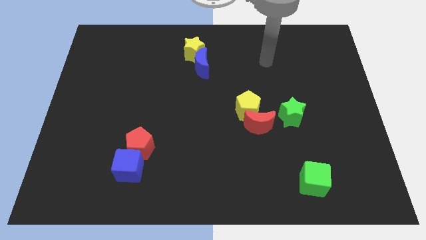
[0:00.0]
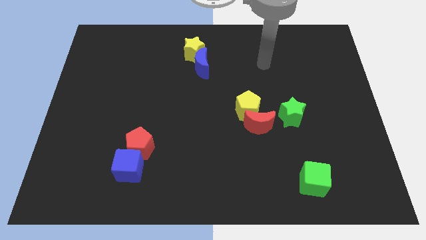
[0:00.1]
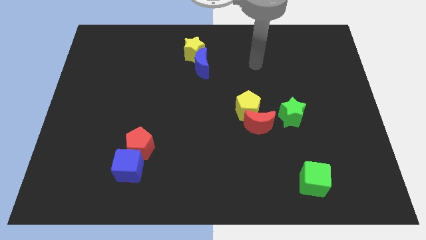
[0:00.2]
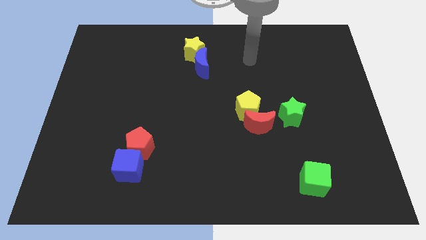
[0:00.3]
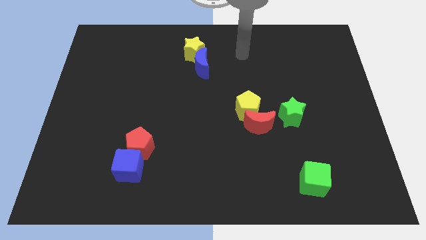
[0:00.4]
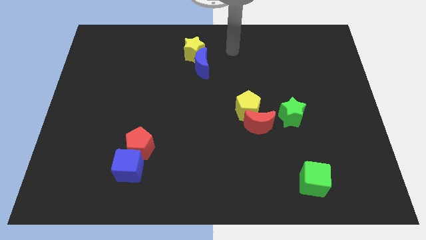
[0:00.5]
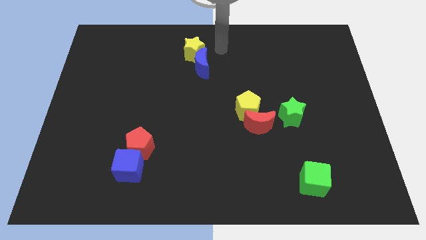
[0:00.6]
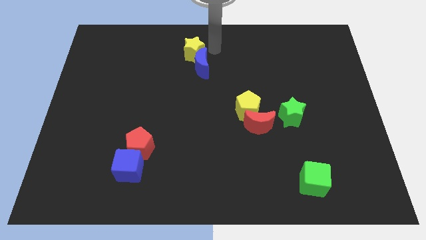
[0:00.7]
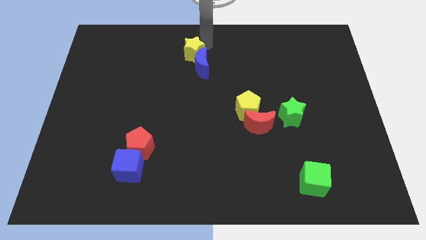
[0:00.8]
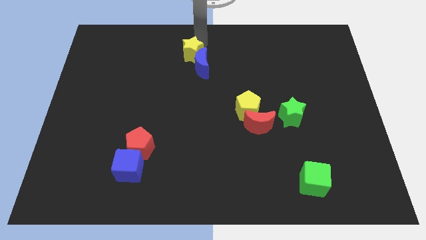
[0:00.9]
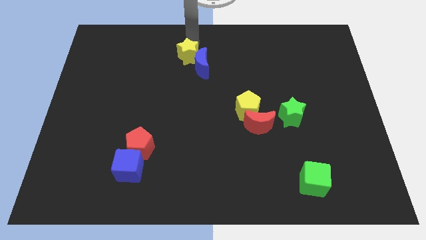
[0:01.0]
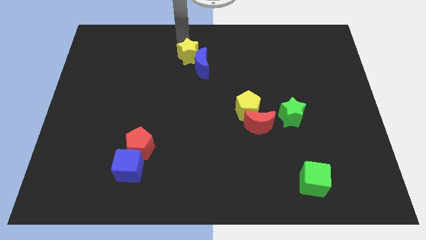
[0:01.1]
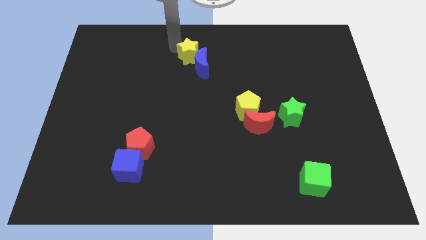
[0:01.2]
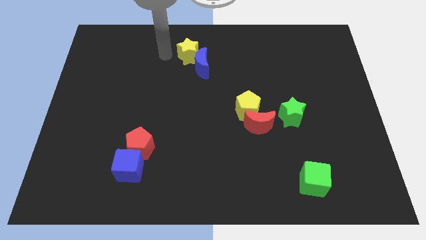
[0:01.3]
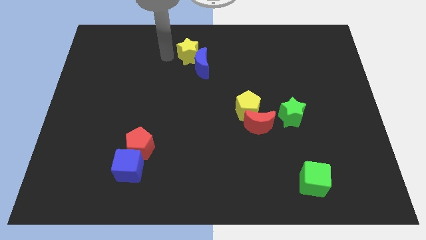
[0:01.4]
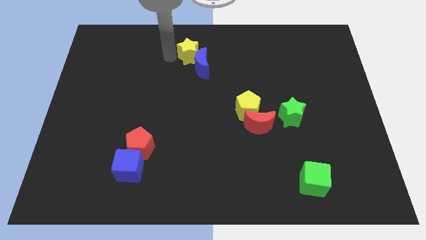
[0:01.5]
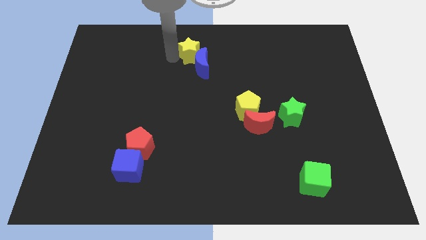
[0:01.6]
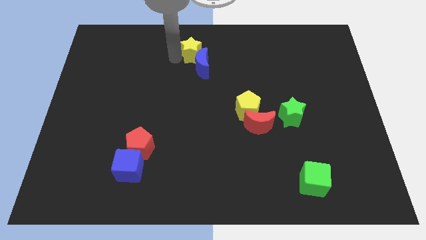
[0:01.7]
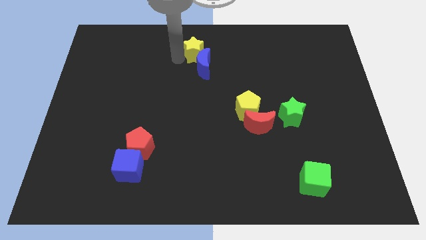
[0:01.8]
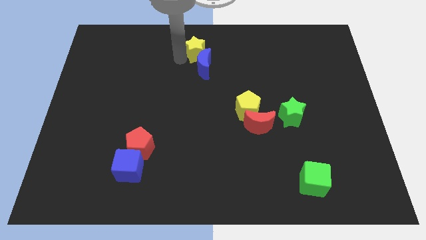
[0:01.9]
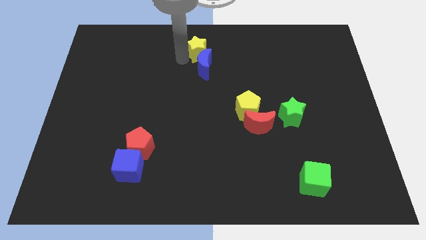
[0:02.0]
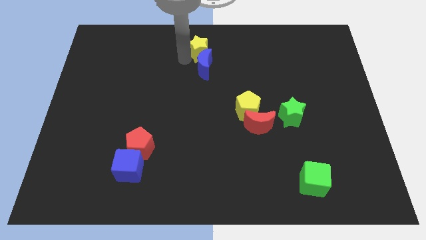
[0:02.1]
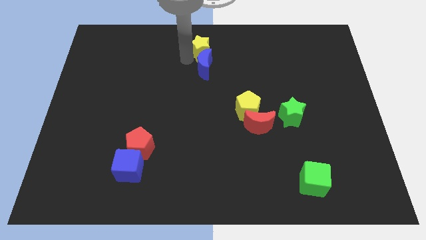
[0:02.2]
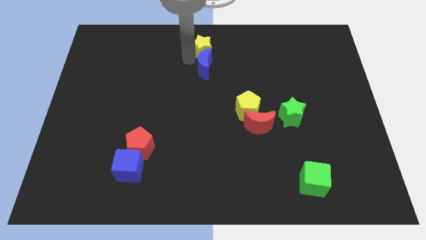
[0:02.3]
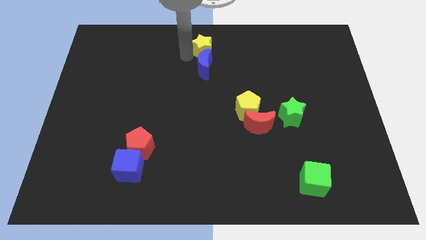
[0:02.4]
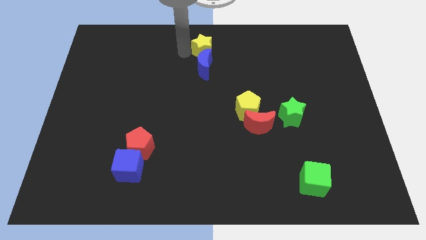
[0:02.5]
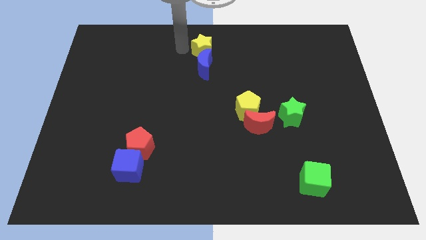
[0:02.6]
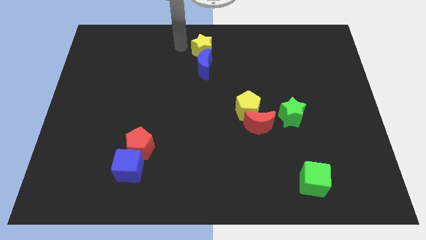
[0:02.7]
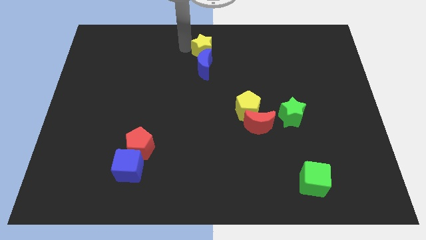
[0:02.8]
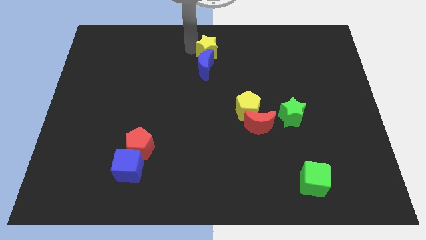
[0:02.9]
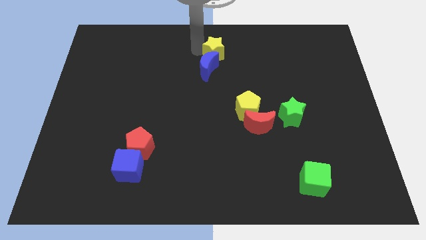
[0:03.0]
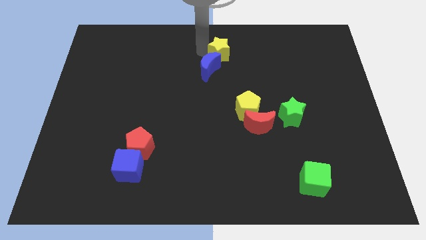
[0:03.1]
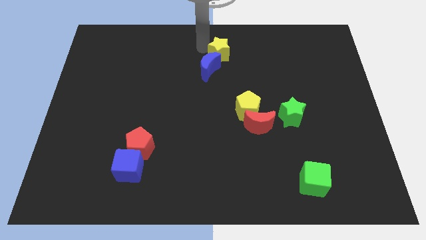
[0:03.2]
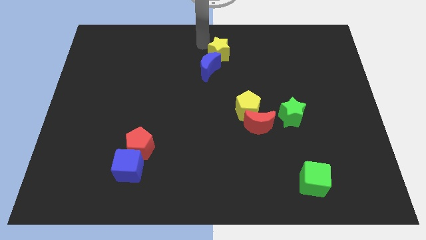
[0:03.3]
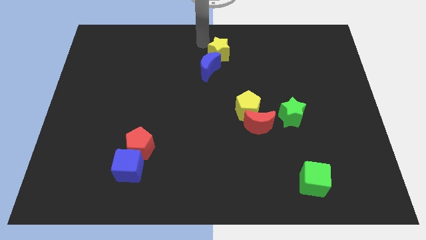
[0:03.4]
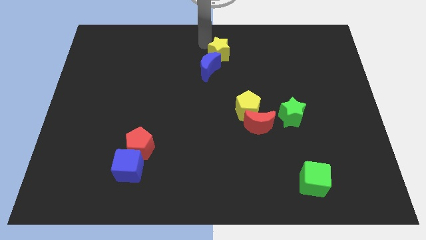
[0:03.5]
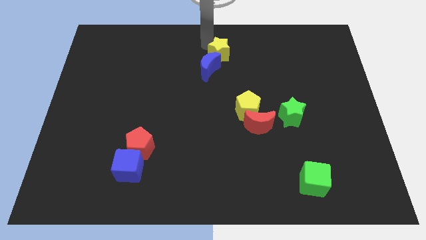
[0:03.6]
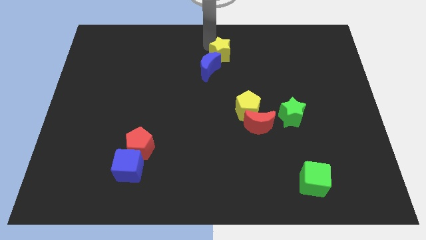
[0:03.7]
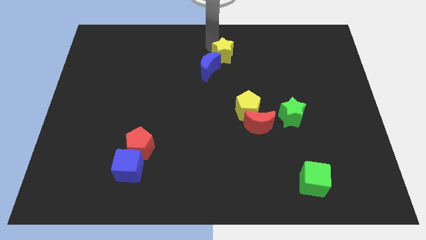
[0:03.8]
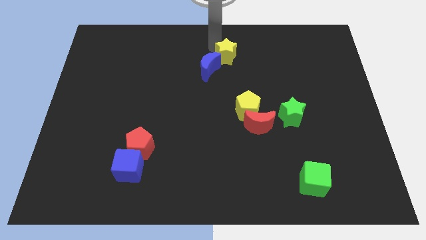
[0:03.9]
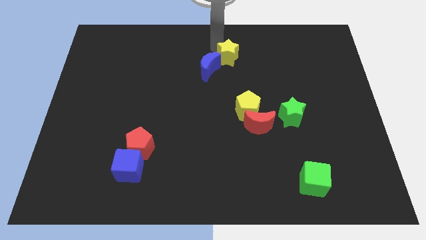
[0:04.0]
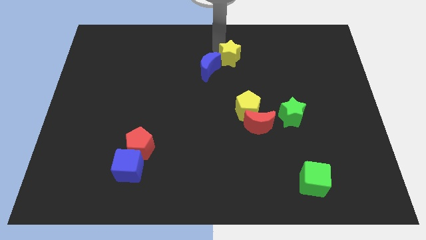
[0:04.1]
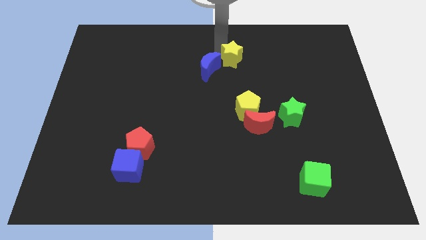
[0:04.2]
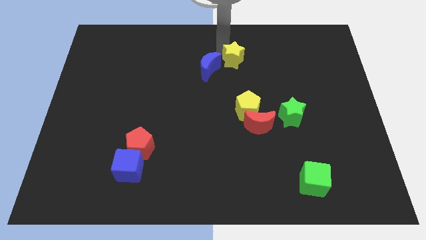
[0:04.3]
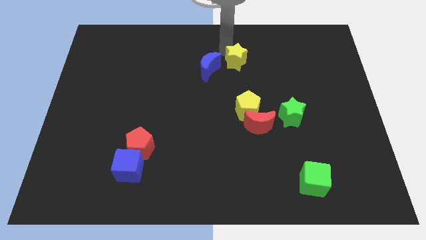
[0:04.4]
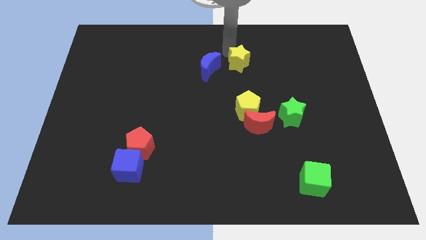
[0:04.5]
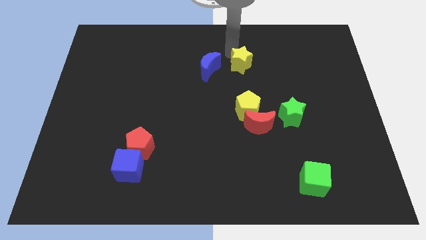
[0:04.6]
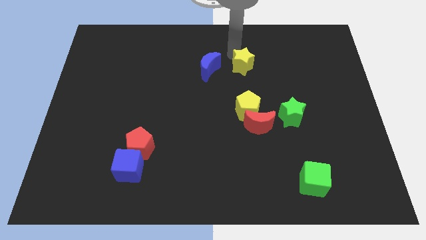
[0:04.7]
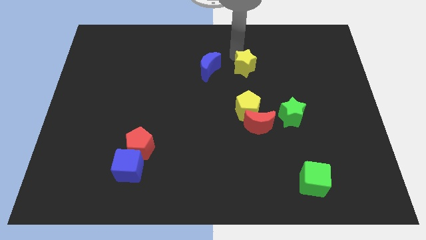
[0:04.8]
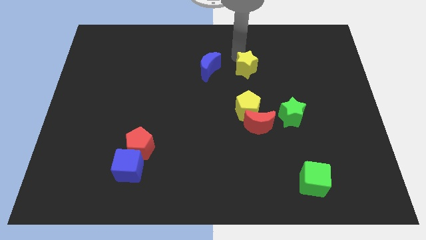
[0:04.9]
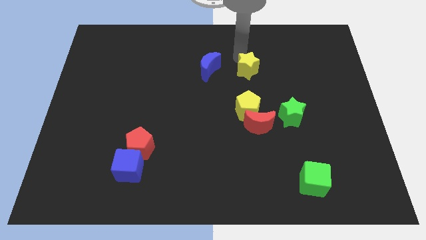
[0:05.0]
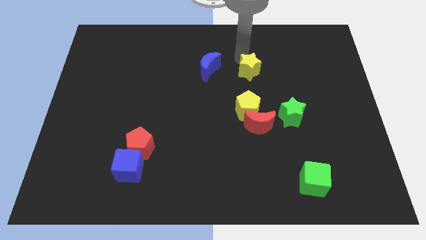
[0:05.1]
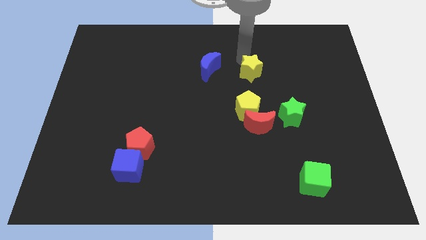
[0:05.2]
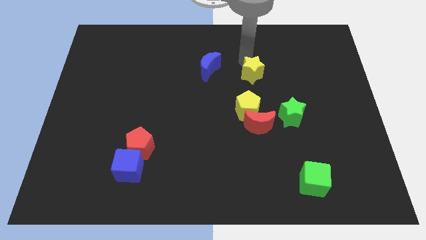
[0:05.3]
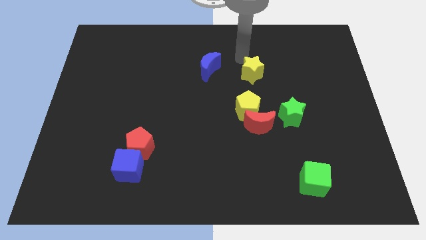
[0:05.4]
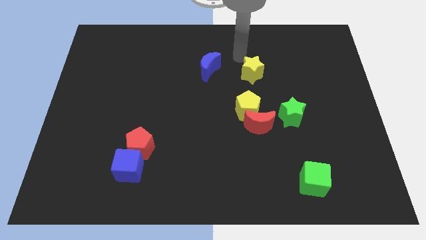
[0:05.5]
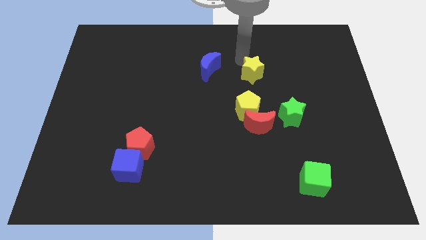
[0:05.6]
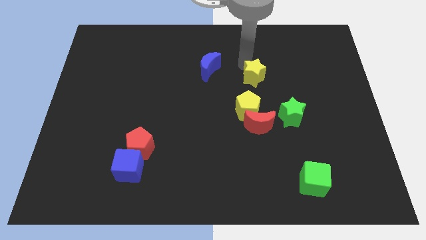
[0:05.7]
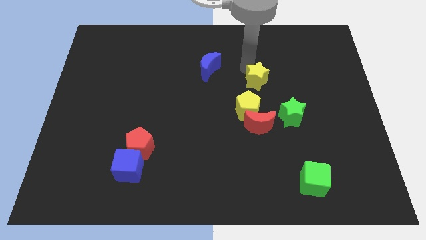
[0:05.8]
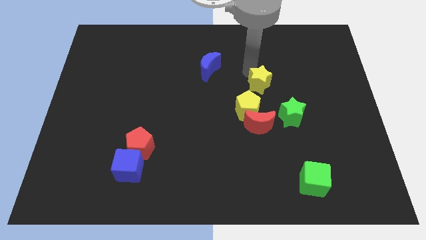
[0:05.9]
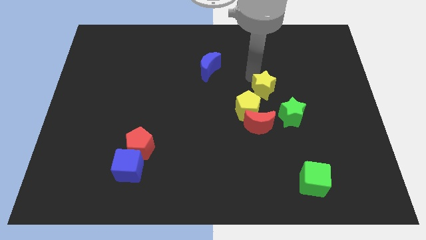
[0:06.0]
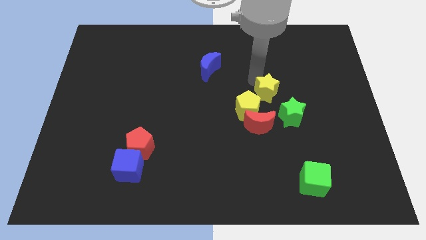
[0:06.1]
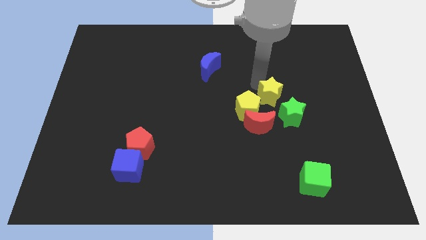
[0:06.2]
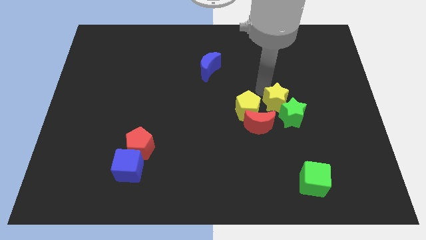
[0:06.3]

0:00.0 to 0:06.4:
move the yellow star next to the green star
